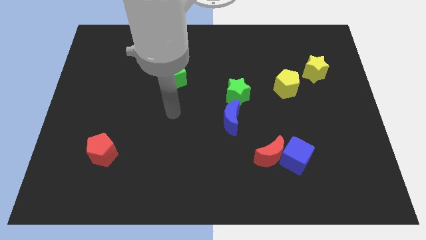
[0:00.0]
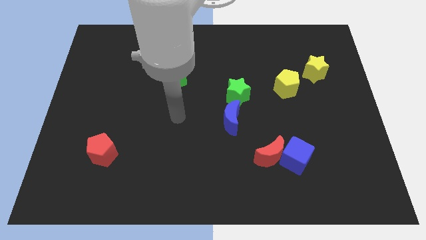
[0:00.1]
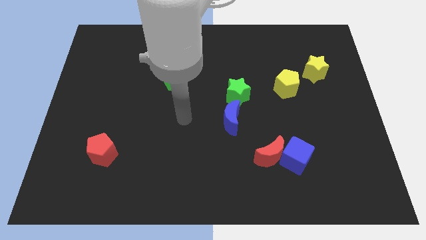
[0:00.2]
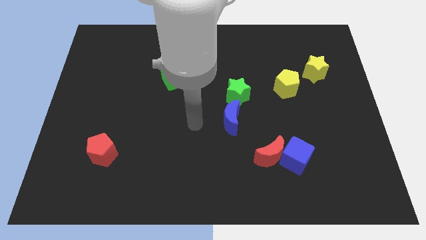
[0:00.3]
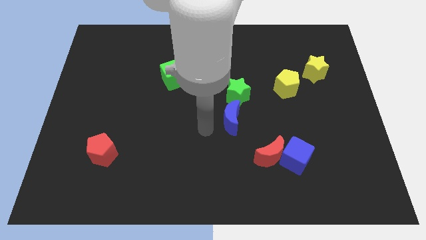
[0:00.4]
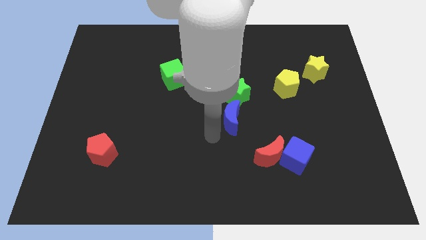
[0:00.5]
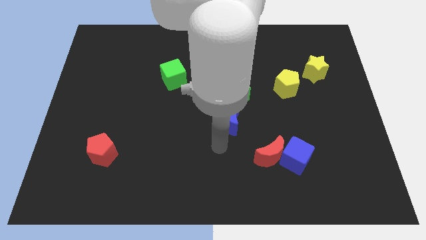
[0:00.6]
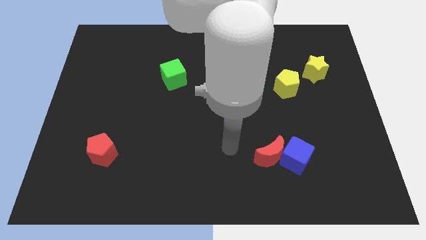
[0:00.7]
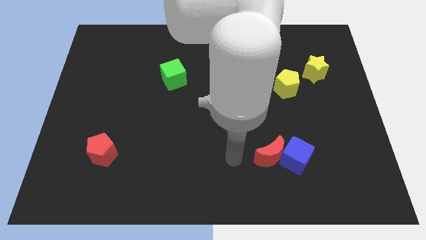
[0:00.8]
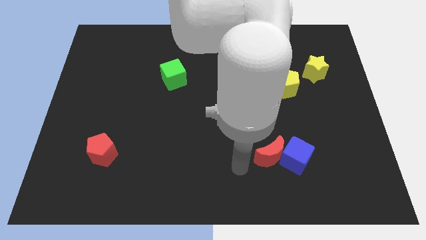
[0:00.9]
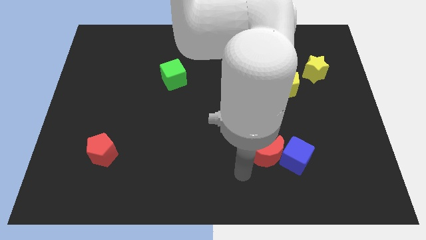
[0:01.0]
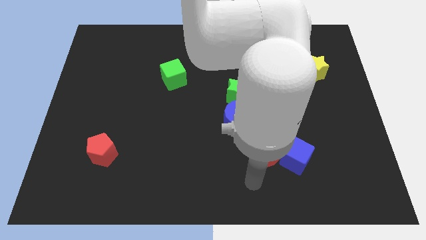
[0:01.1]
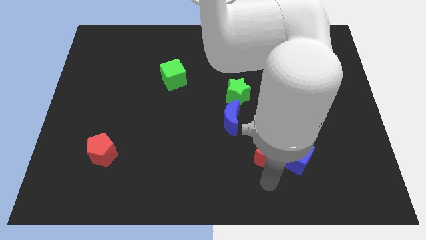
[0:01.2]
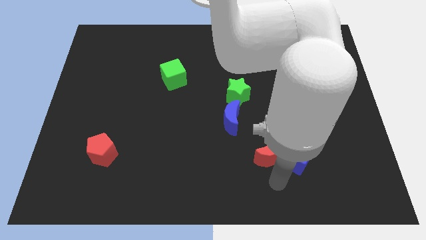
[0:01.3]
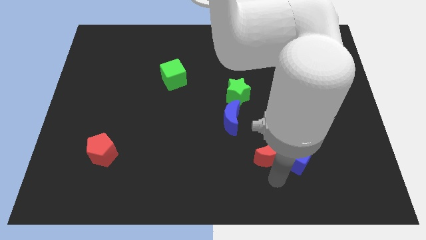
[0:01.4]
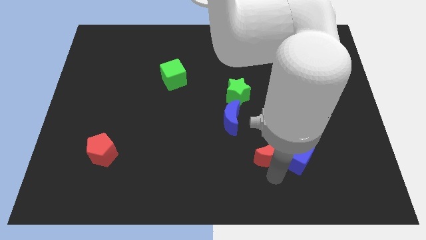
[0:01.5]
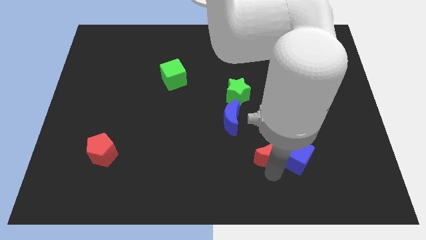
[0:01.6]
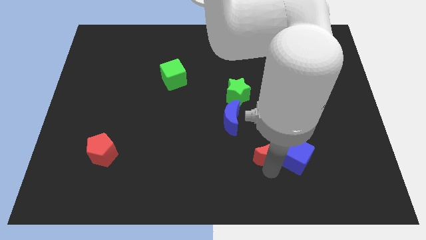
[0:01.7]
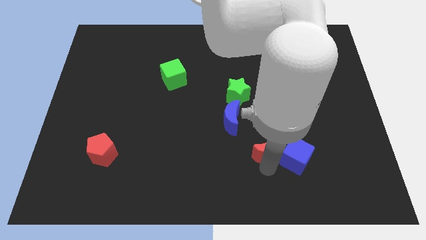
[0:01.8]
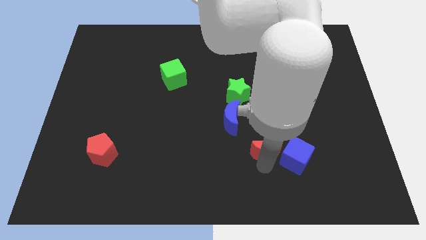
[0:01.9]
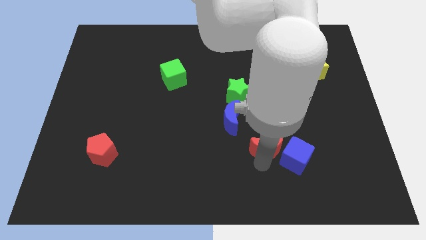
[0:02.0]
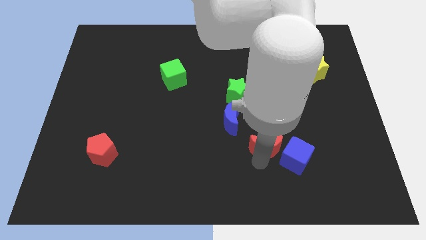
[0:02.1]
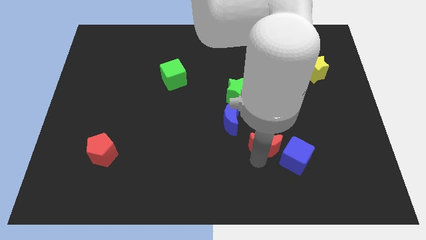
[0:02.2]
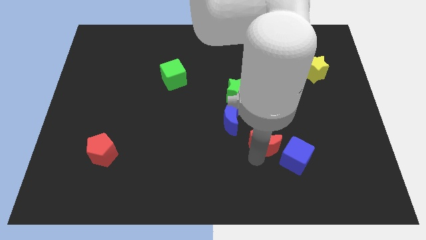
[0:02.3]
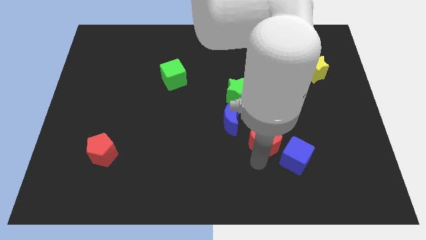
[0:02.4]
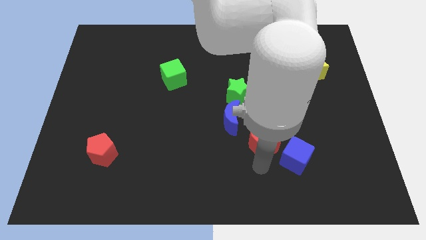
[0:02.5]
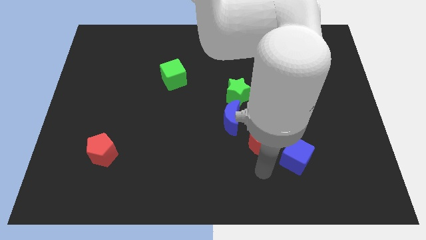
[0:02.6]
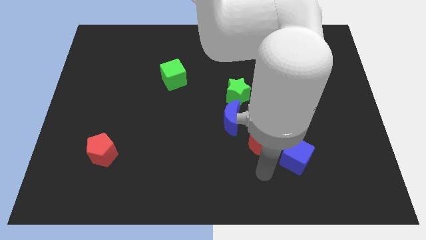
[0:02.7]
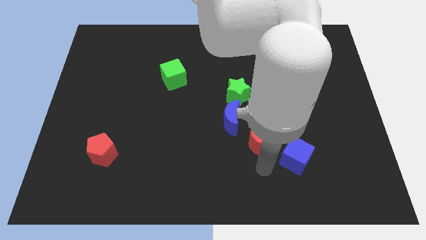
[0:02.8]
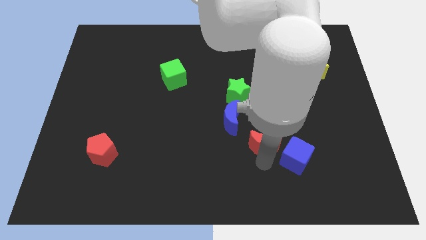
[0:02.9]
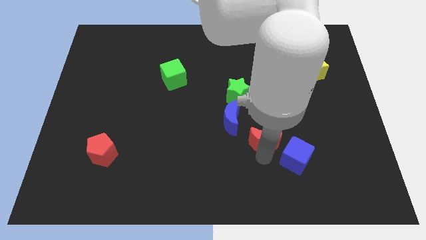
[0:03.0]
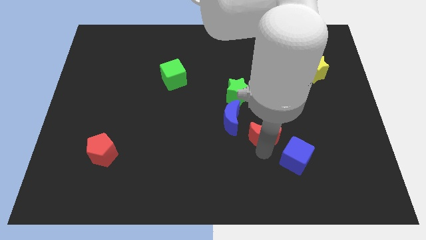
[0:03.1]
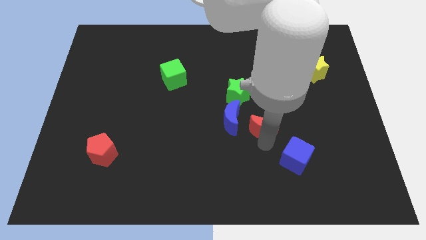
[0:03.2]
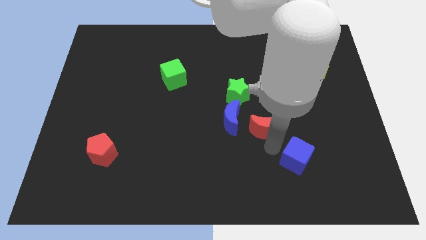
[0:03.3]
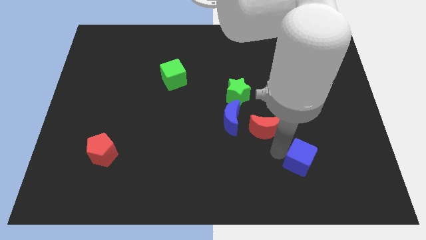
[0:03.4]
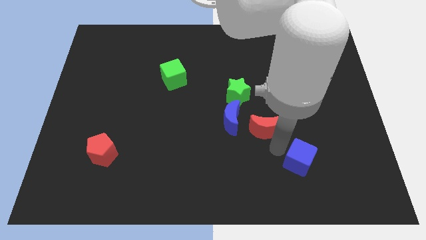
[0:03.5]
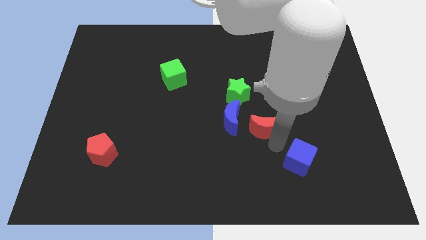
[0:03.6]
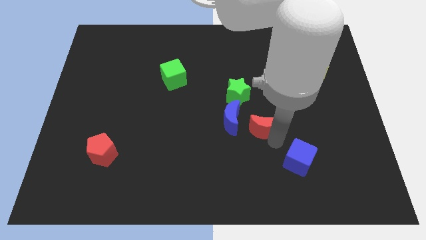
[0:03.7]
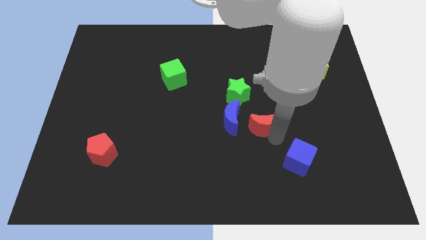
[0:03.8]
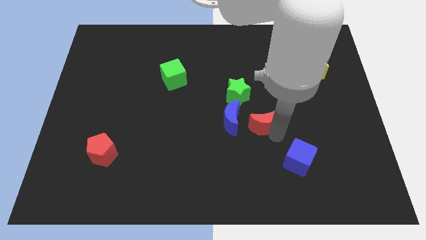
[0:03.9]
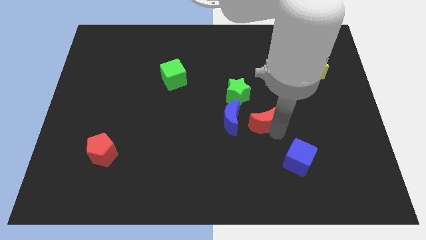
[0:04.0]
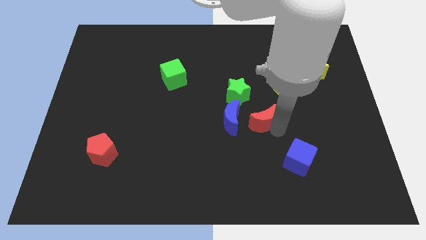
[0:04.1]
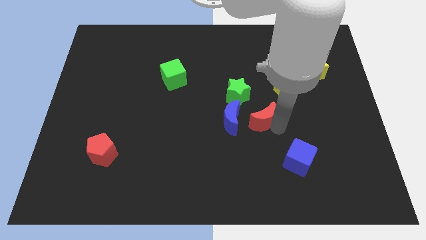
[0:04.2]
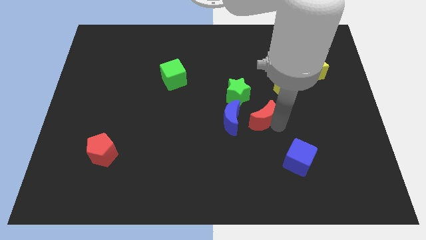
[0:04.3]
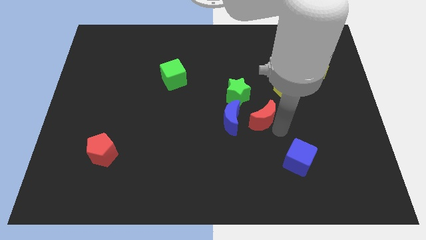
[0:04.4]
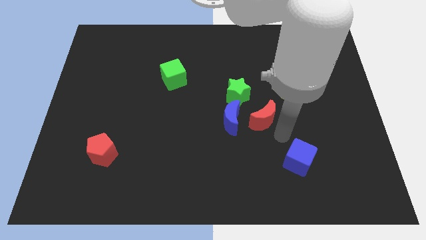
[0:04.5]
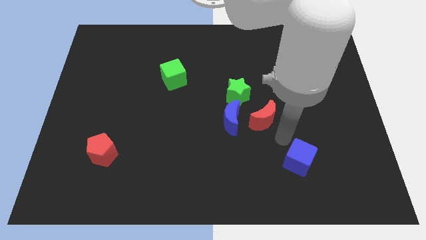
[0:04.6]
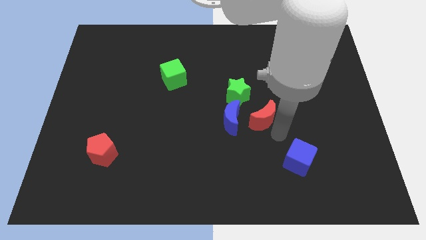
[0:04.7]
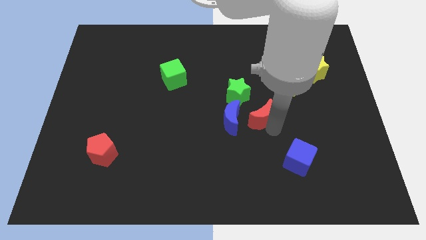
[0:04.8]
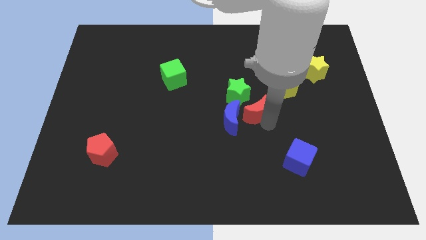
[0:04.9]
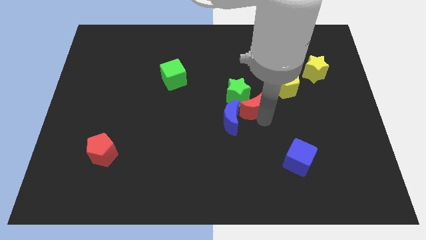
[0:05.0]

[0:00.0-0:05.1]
move the red moon next to the green star

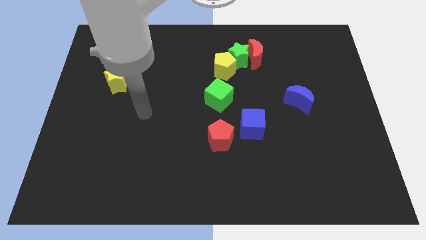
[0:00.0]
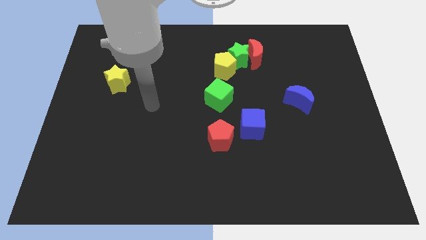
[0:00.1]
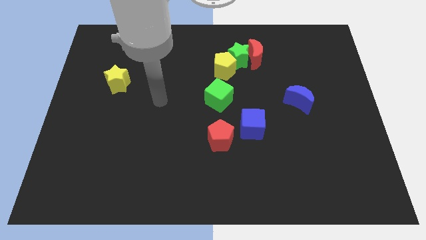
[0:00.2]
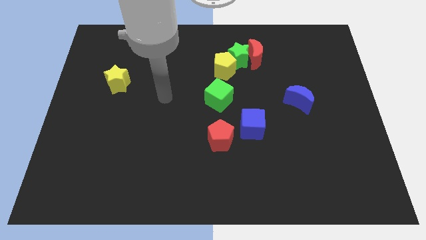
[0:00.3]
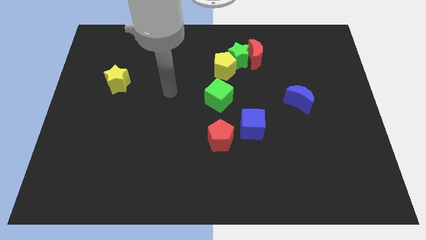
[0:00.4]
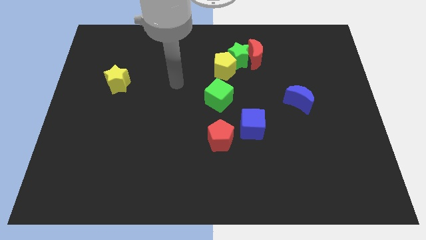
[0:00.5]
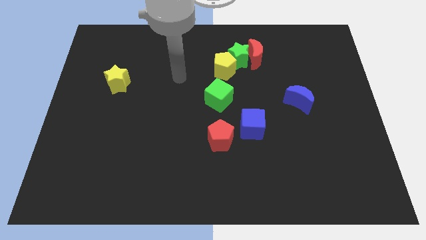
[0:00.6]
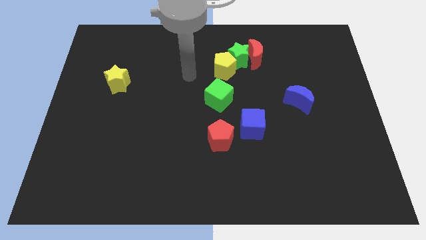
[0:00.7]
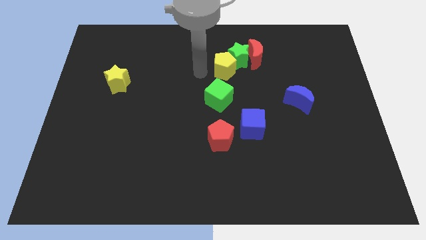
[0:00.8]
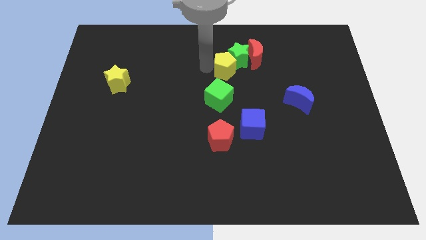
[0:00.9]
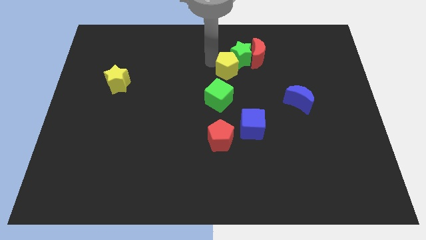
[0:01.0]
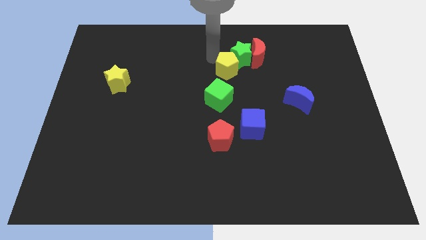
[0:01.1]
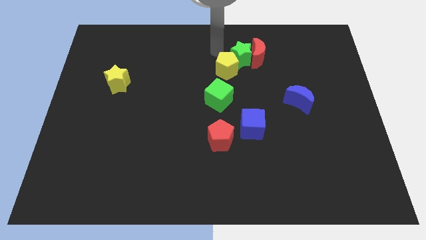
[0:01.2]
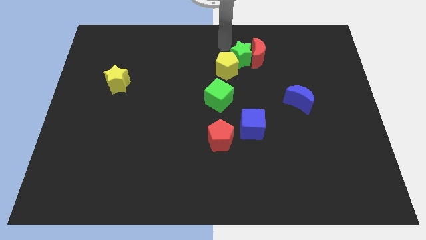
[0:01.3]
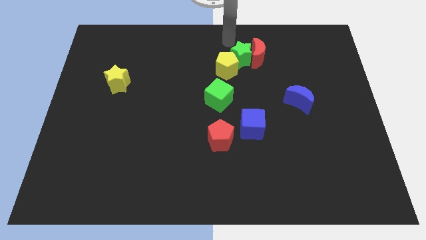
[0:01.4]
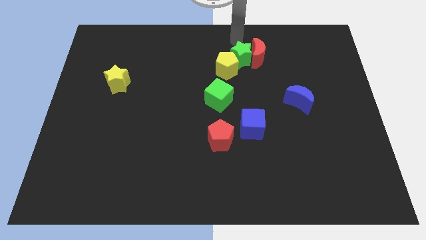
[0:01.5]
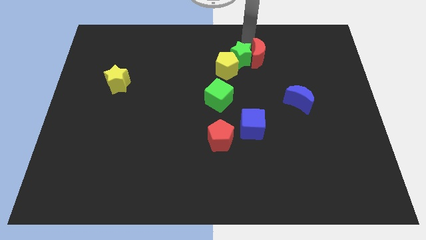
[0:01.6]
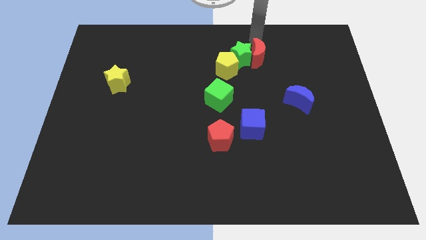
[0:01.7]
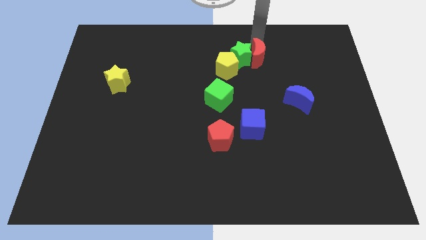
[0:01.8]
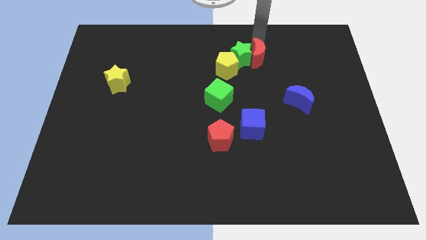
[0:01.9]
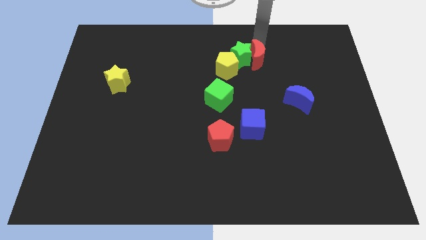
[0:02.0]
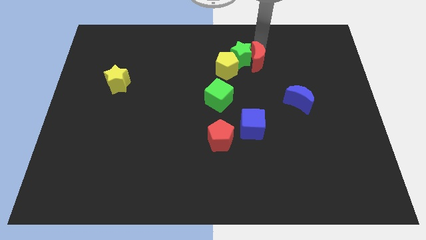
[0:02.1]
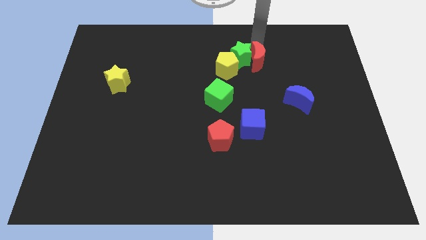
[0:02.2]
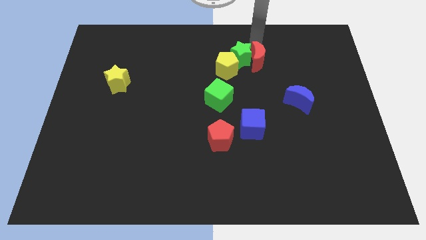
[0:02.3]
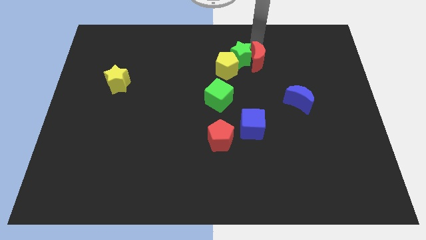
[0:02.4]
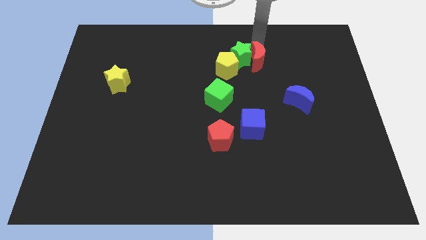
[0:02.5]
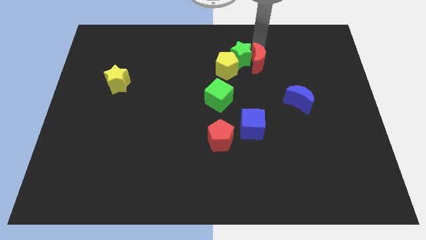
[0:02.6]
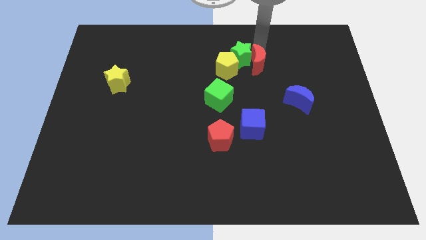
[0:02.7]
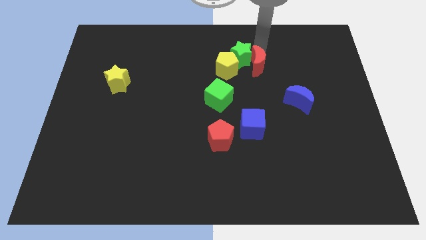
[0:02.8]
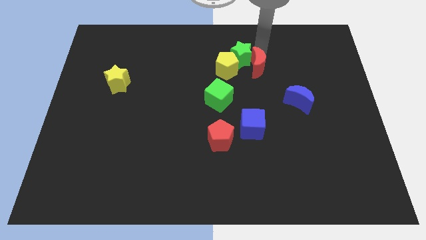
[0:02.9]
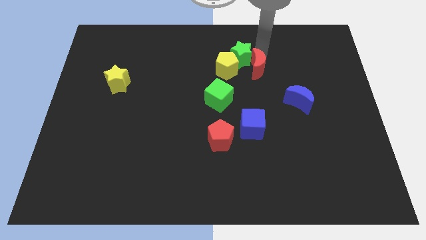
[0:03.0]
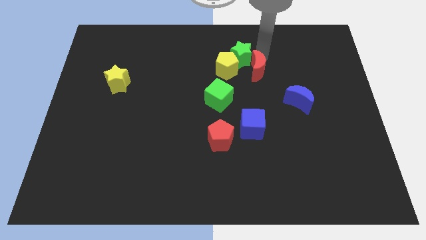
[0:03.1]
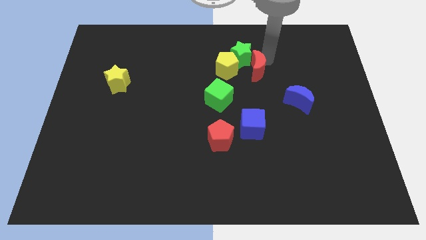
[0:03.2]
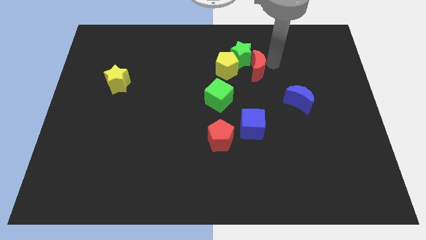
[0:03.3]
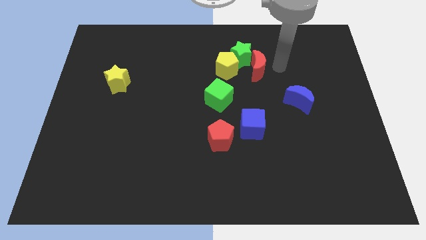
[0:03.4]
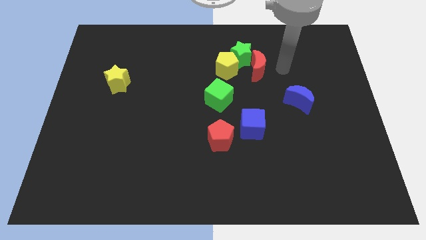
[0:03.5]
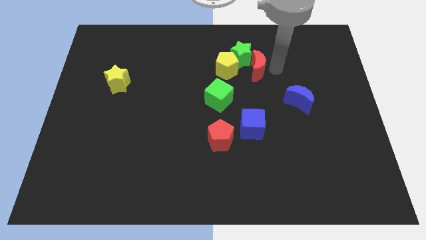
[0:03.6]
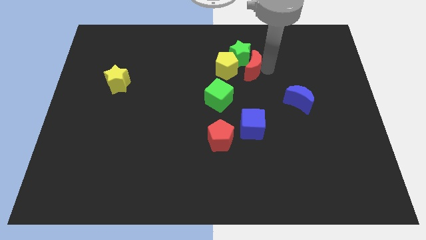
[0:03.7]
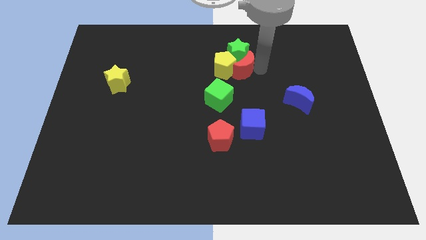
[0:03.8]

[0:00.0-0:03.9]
slide the red moon next to the yellow pentagon
